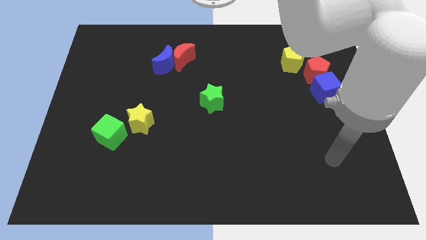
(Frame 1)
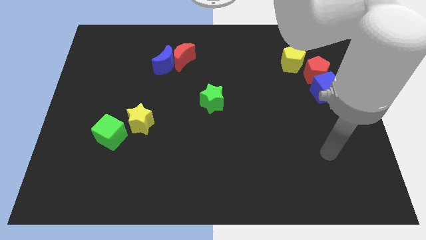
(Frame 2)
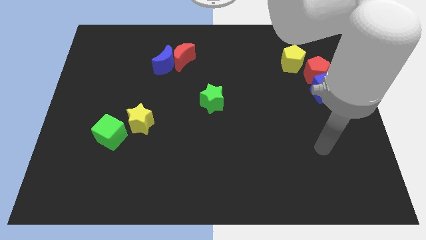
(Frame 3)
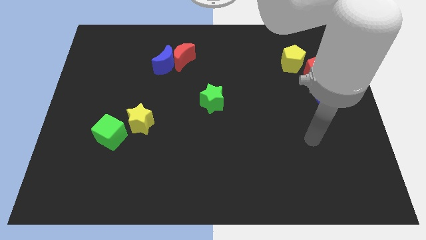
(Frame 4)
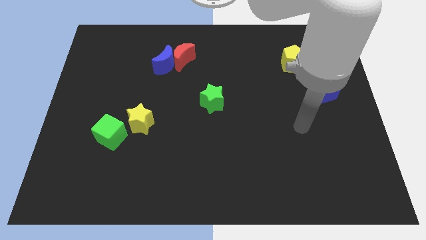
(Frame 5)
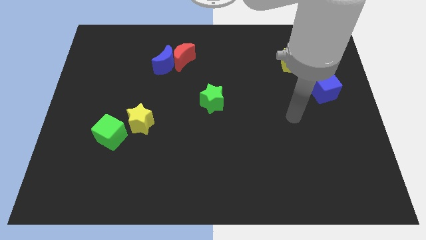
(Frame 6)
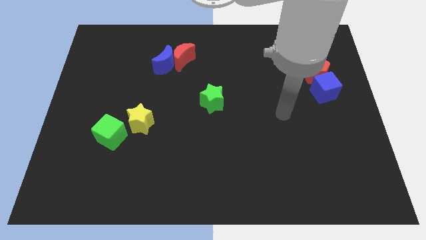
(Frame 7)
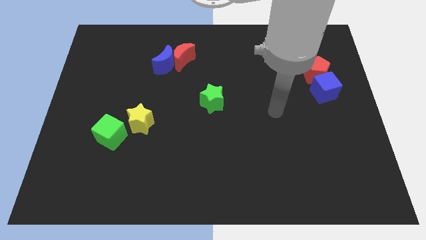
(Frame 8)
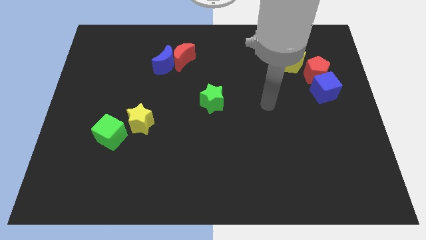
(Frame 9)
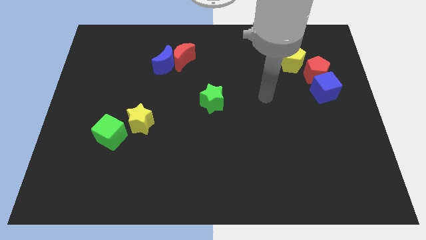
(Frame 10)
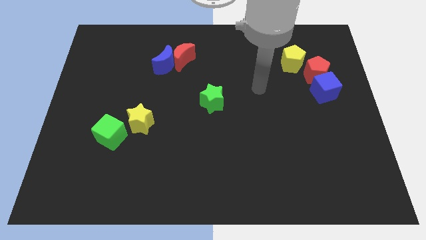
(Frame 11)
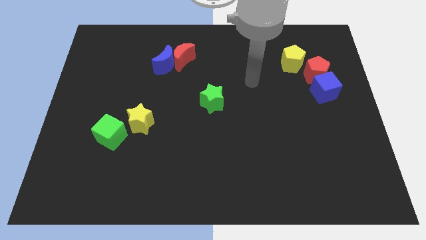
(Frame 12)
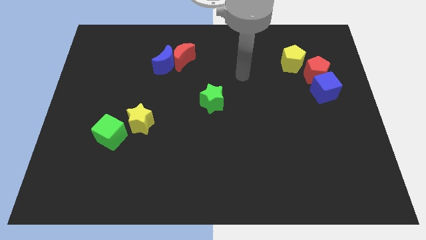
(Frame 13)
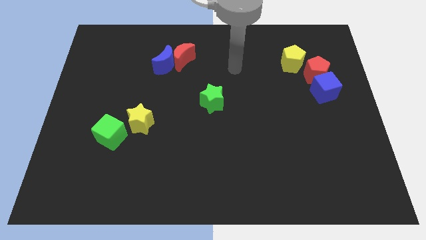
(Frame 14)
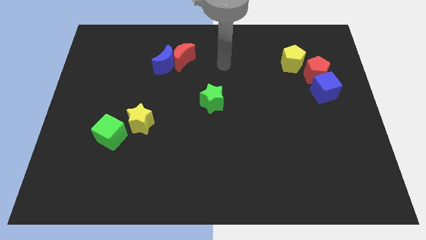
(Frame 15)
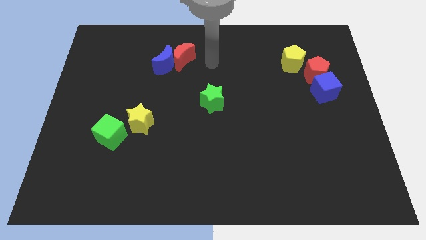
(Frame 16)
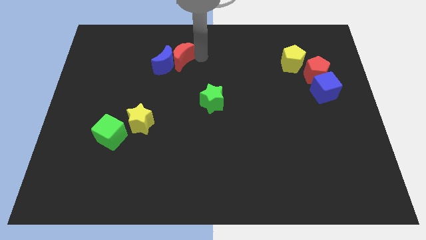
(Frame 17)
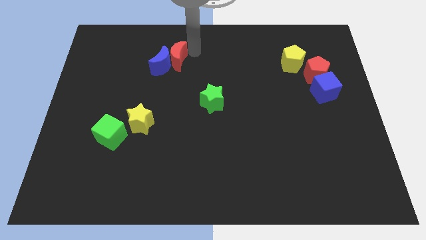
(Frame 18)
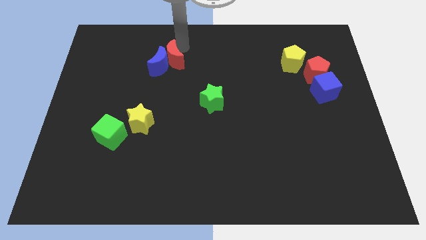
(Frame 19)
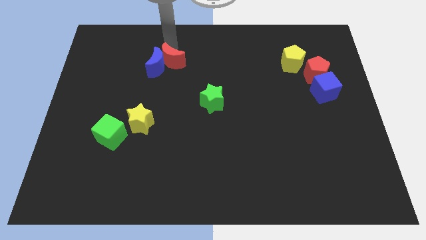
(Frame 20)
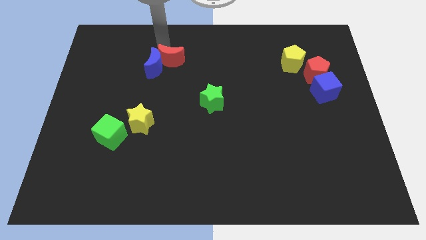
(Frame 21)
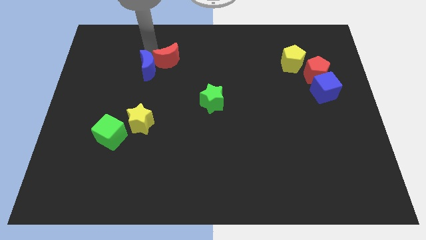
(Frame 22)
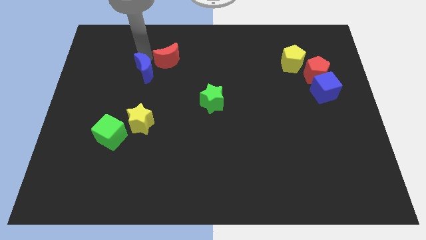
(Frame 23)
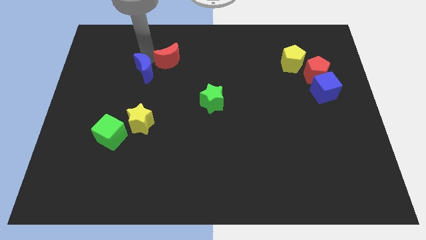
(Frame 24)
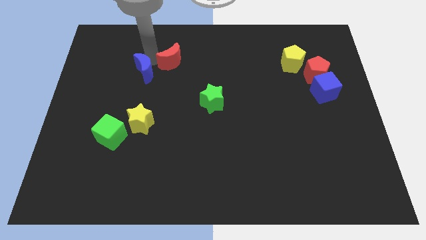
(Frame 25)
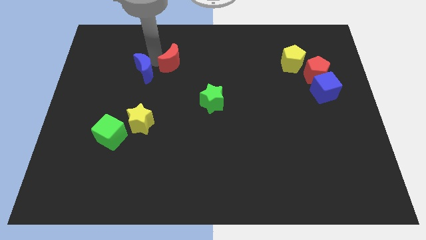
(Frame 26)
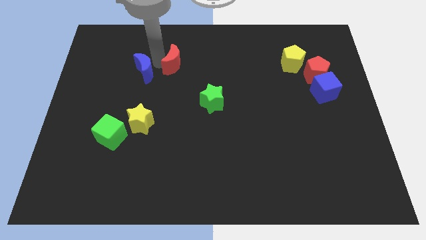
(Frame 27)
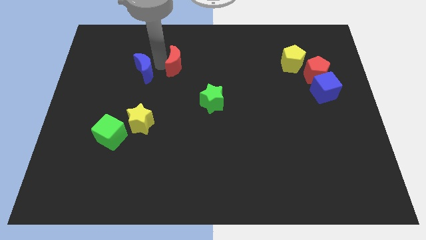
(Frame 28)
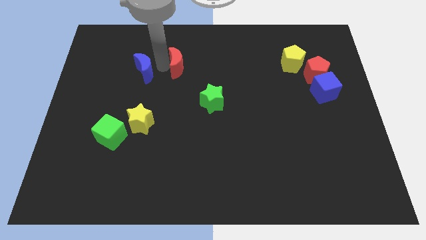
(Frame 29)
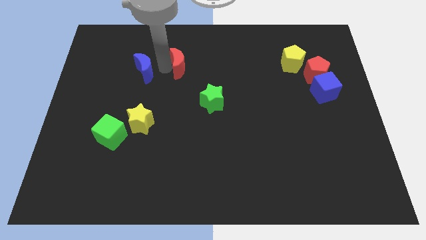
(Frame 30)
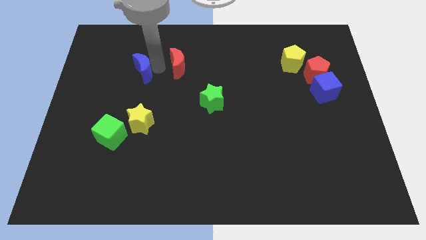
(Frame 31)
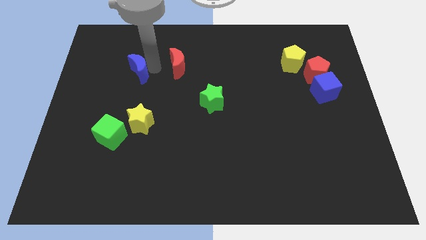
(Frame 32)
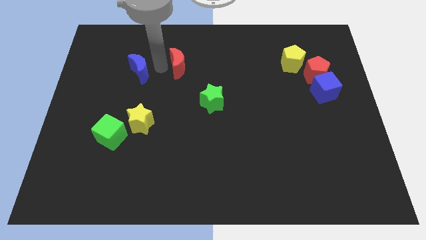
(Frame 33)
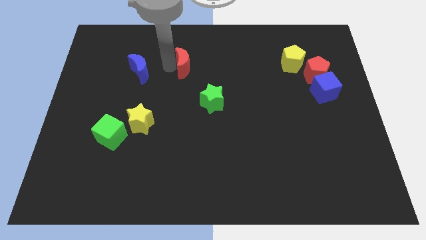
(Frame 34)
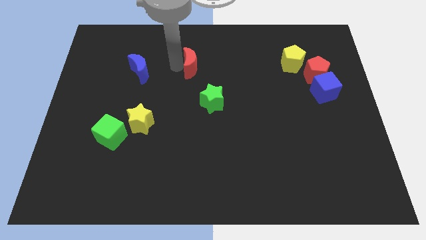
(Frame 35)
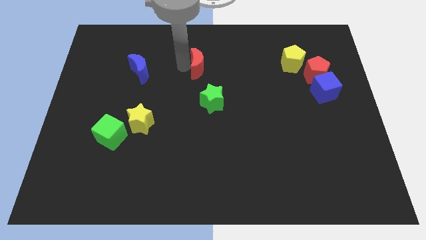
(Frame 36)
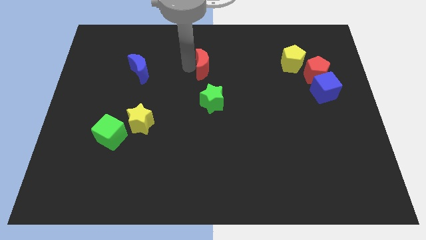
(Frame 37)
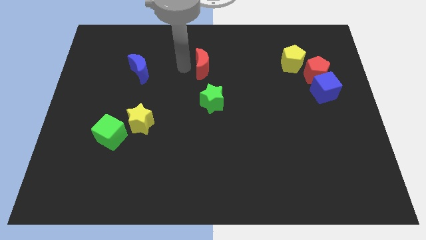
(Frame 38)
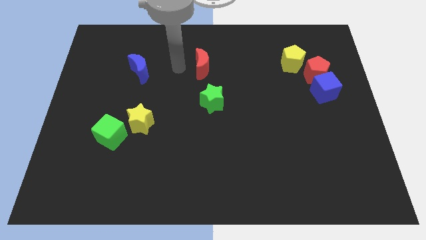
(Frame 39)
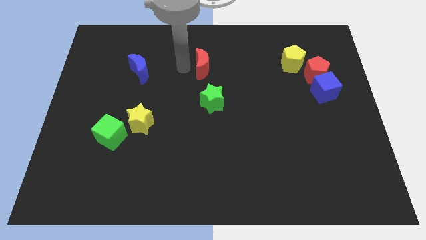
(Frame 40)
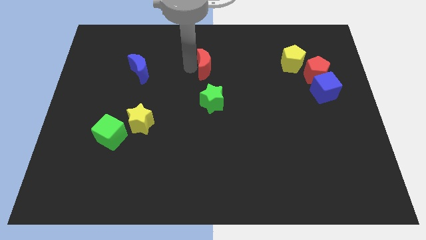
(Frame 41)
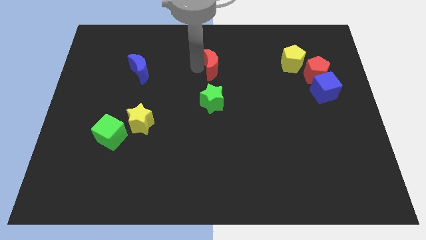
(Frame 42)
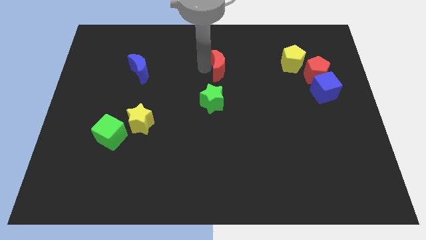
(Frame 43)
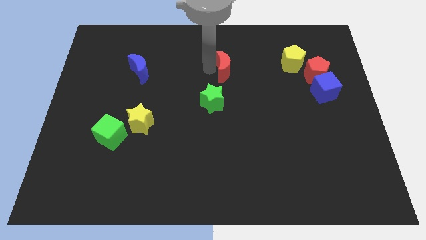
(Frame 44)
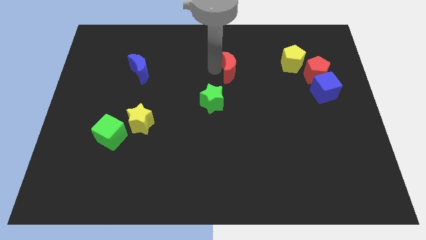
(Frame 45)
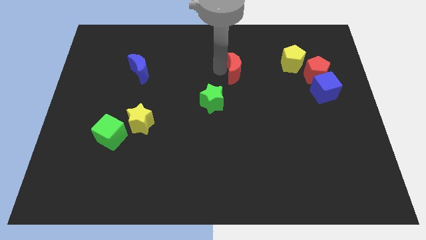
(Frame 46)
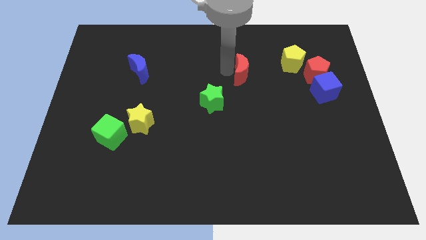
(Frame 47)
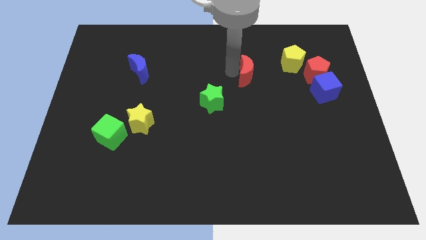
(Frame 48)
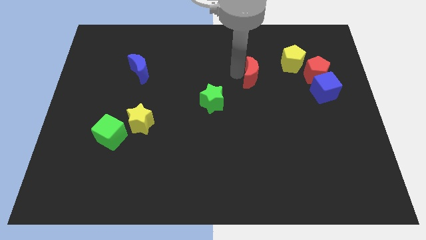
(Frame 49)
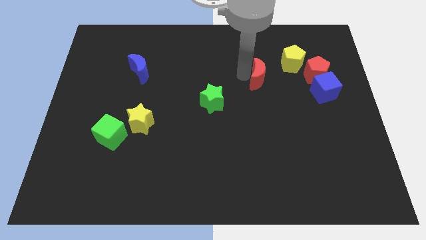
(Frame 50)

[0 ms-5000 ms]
push the red moon to the bottom left side of the yellow pentagon

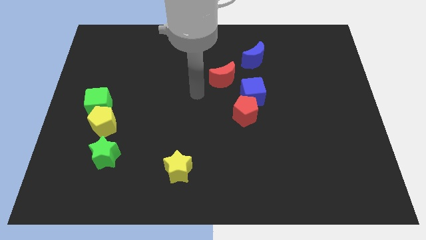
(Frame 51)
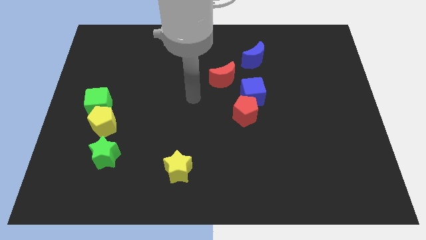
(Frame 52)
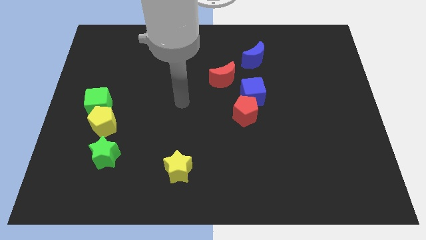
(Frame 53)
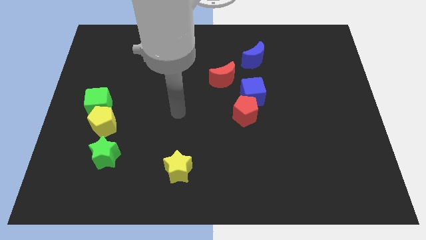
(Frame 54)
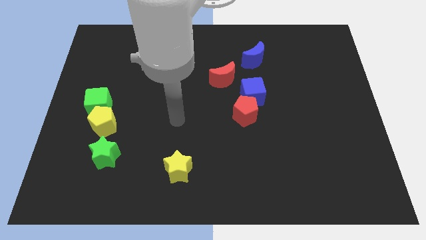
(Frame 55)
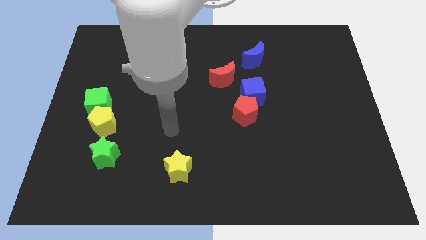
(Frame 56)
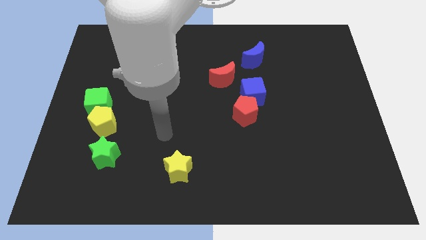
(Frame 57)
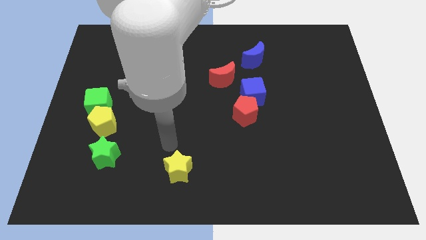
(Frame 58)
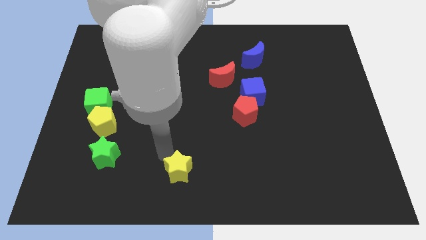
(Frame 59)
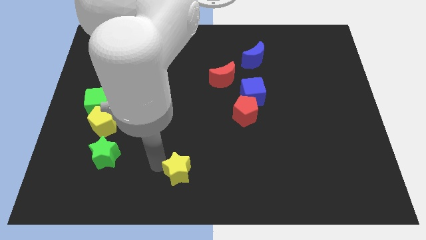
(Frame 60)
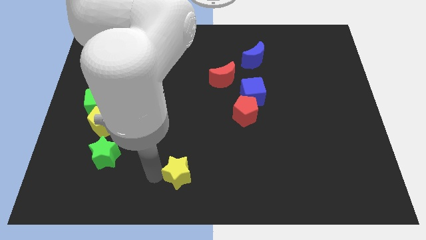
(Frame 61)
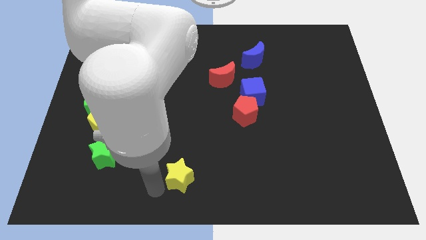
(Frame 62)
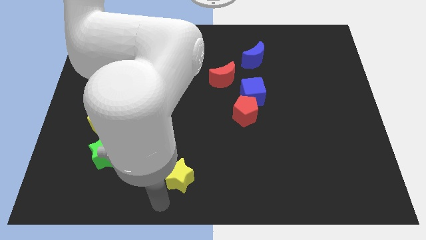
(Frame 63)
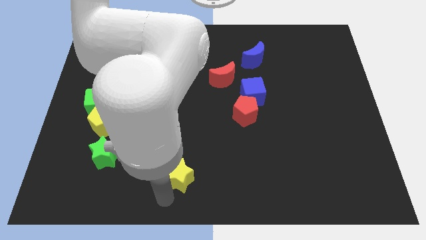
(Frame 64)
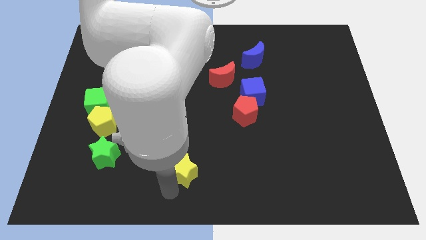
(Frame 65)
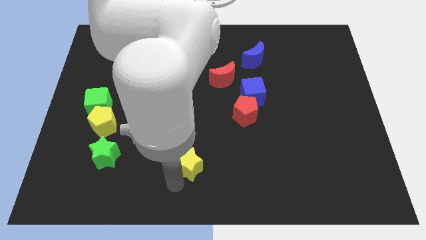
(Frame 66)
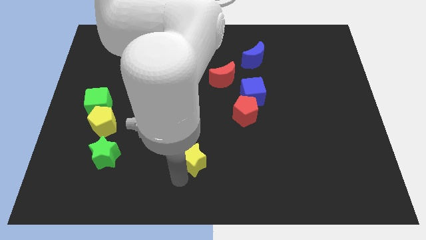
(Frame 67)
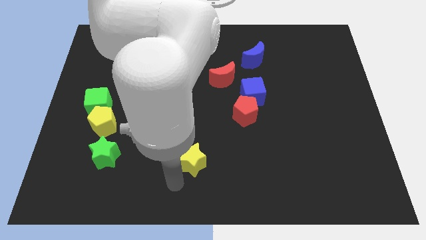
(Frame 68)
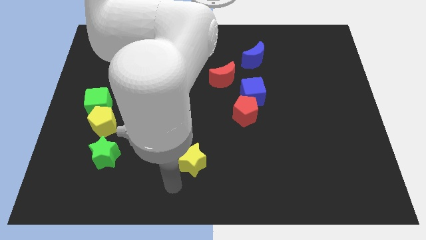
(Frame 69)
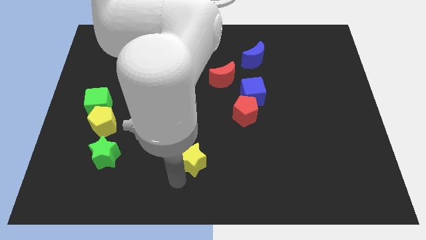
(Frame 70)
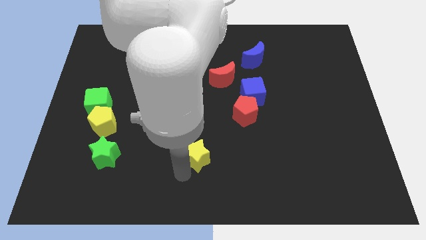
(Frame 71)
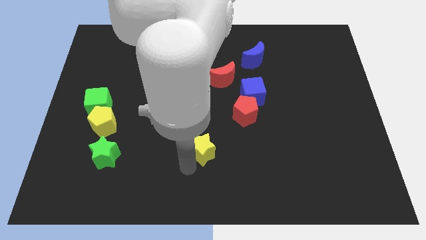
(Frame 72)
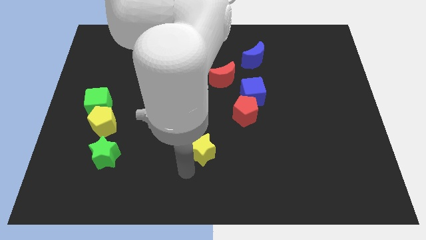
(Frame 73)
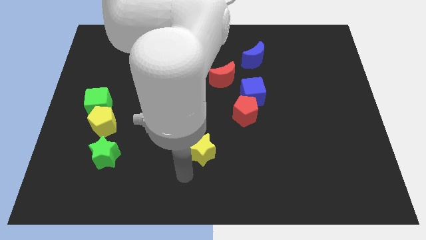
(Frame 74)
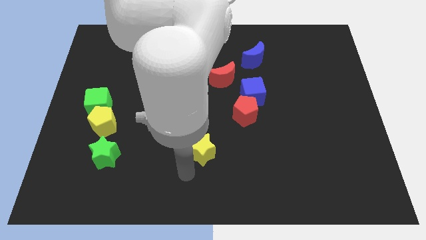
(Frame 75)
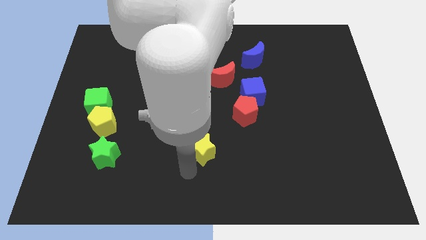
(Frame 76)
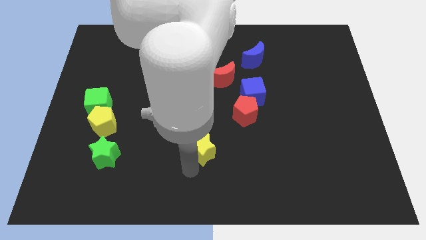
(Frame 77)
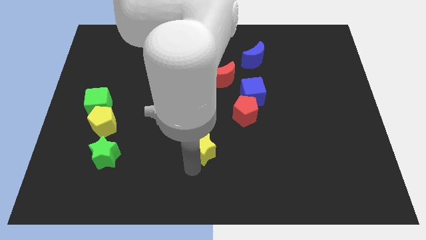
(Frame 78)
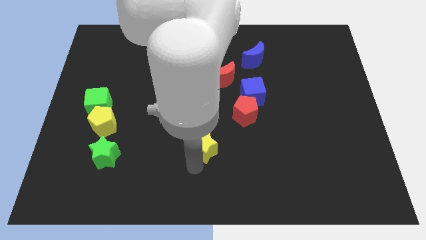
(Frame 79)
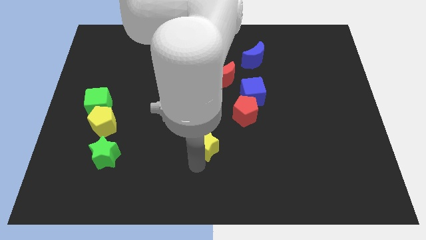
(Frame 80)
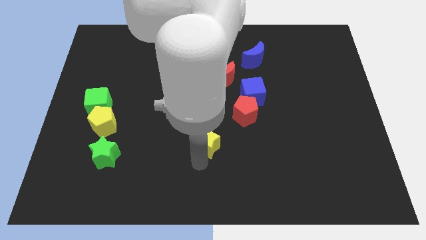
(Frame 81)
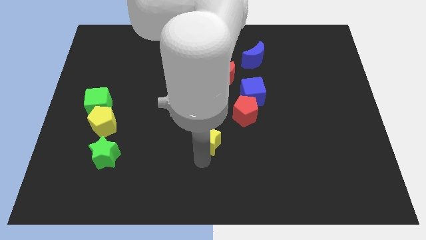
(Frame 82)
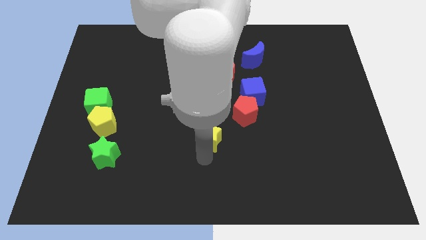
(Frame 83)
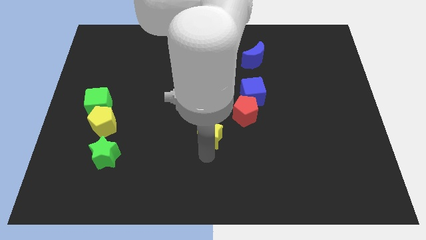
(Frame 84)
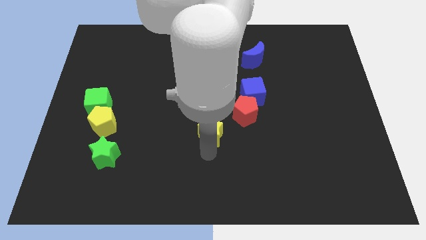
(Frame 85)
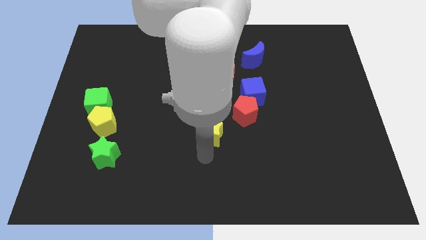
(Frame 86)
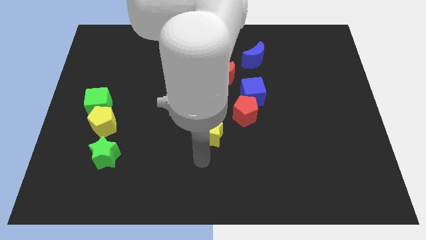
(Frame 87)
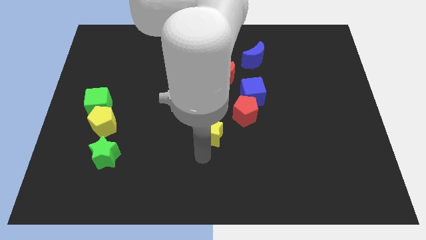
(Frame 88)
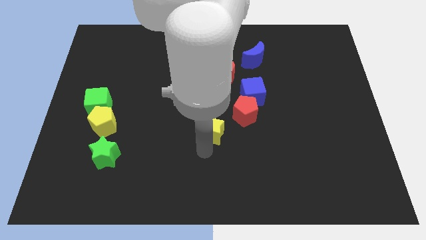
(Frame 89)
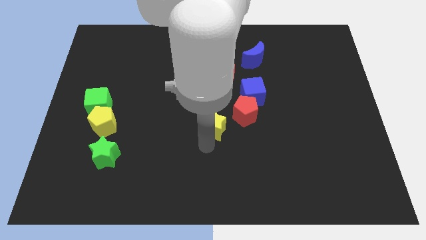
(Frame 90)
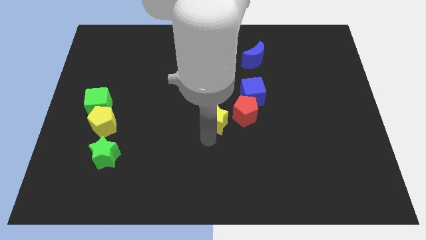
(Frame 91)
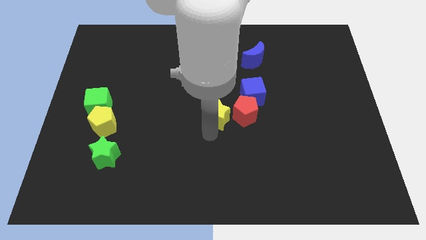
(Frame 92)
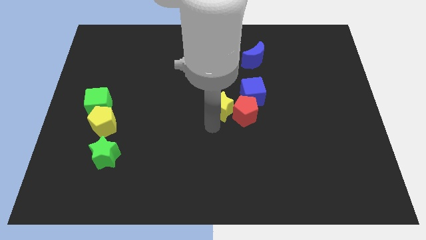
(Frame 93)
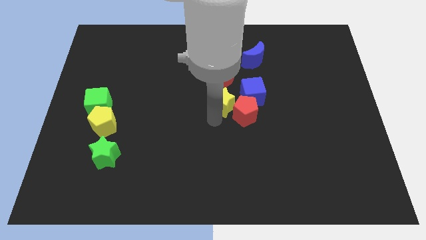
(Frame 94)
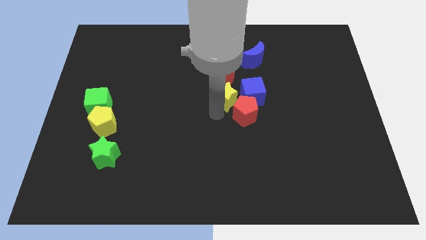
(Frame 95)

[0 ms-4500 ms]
slide the yellow star above the red pentagon
